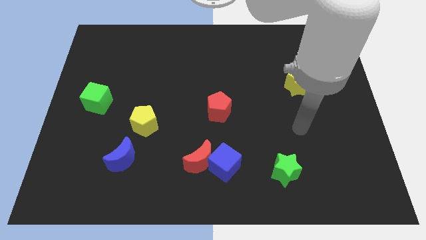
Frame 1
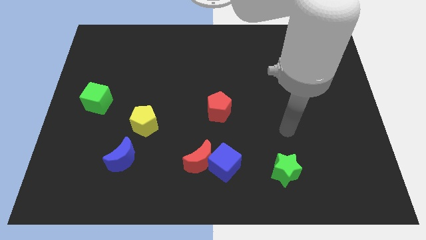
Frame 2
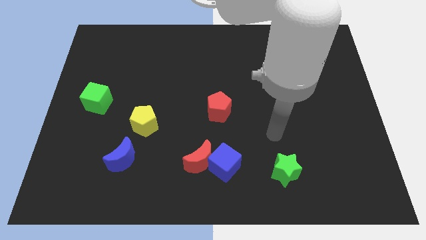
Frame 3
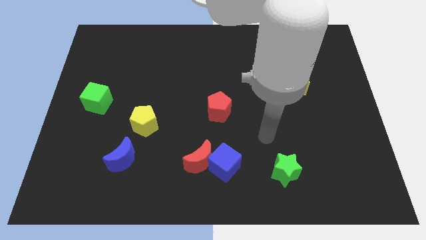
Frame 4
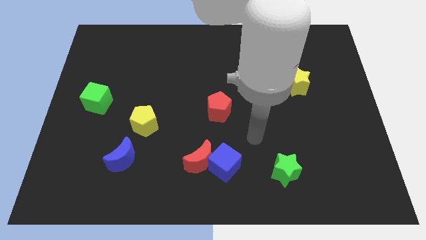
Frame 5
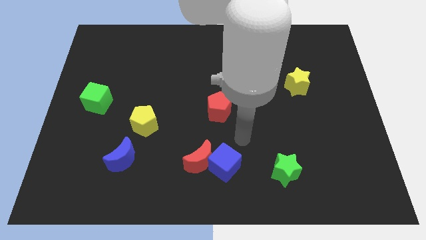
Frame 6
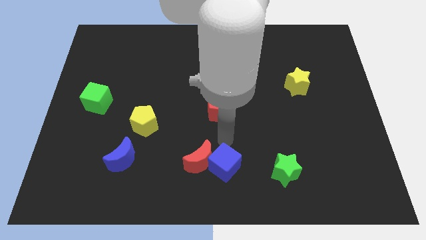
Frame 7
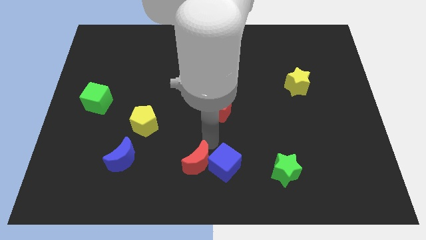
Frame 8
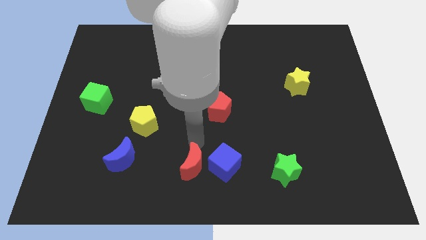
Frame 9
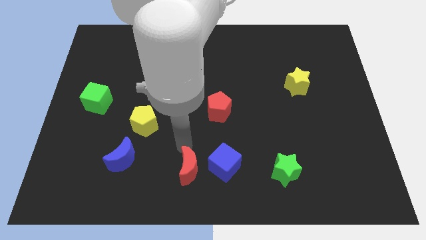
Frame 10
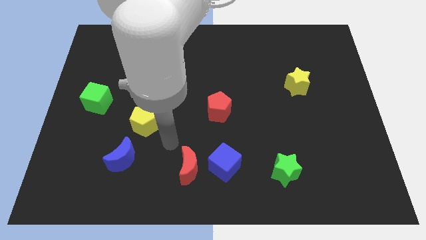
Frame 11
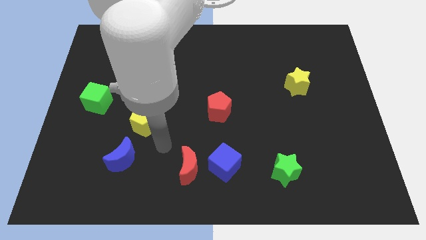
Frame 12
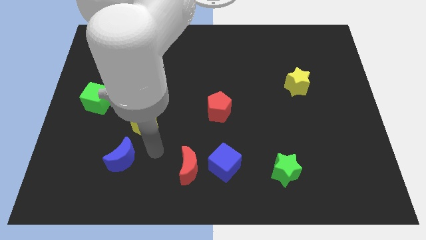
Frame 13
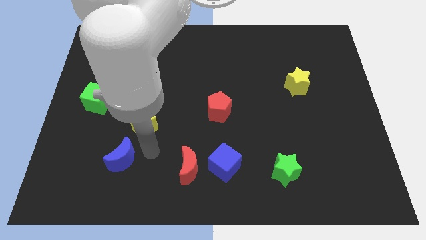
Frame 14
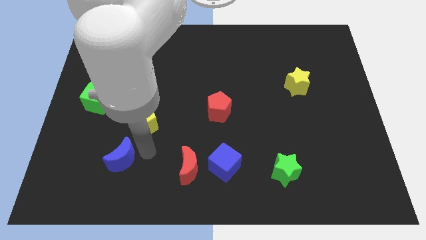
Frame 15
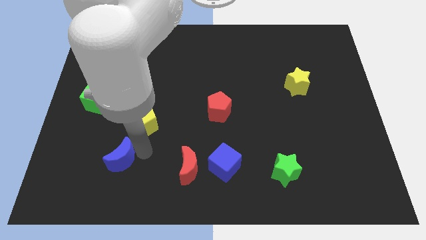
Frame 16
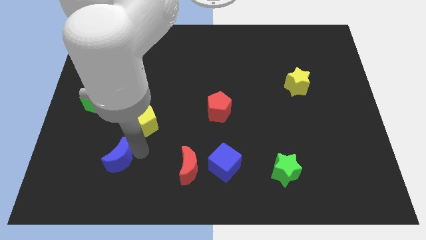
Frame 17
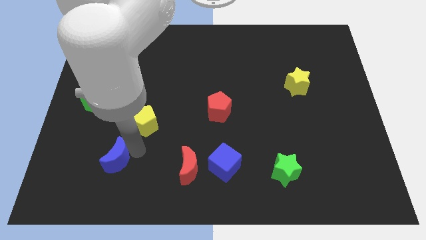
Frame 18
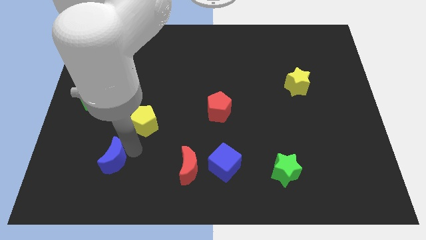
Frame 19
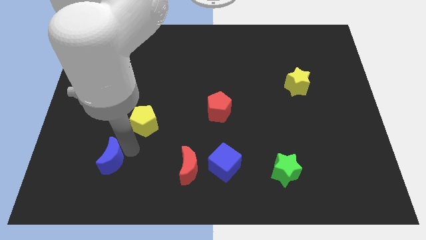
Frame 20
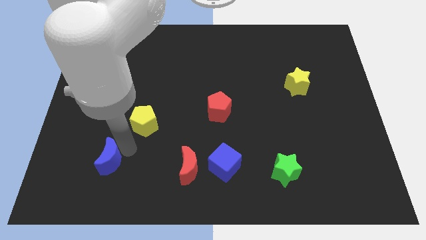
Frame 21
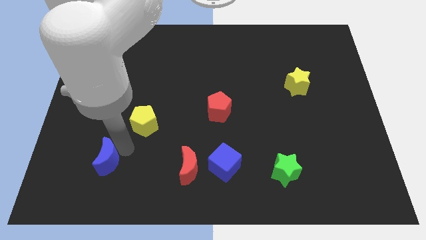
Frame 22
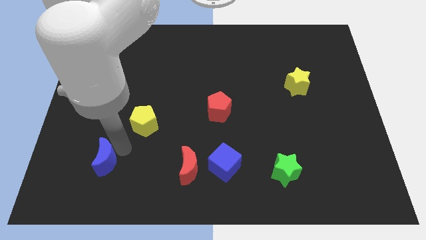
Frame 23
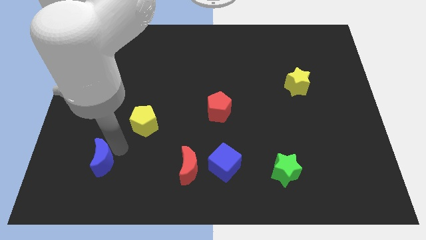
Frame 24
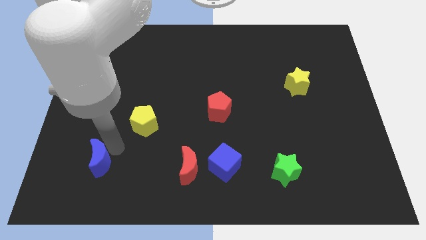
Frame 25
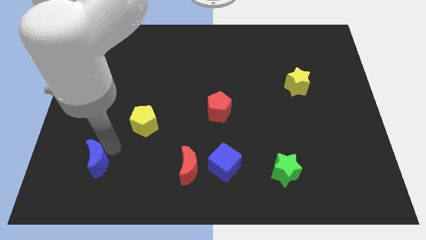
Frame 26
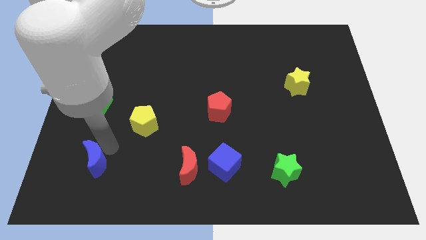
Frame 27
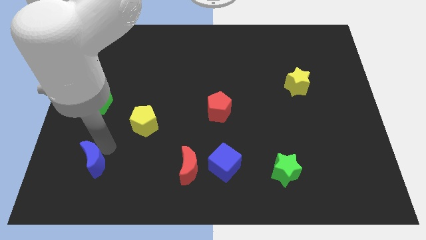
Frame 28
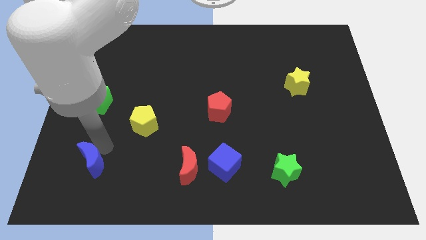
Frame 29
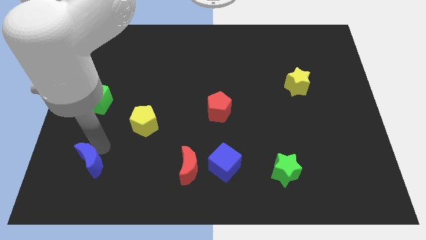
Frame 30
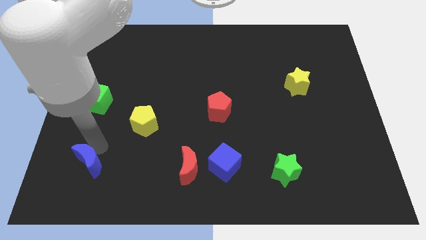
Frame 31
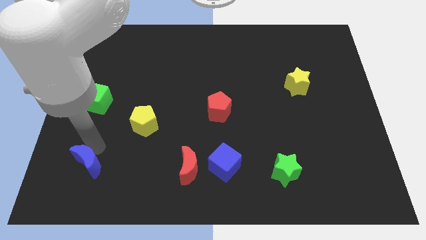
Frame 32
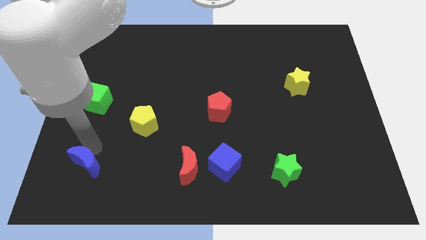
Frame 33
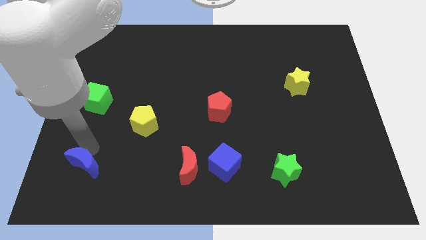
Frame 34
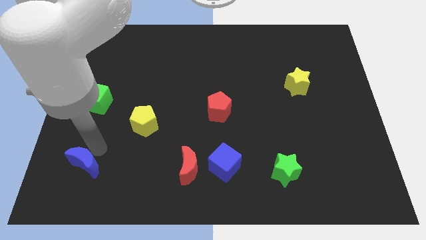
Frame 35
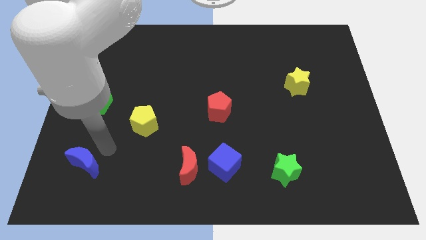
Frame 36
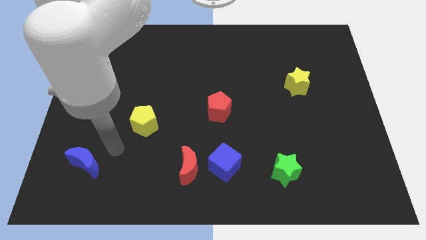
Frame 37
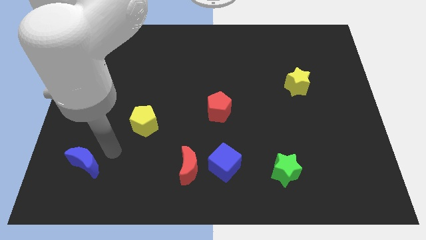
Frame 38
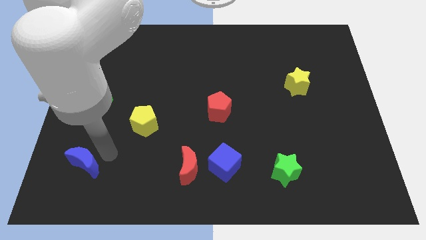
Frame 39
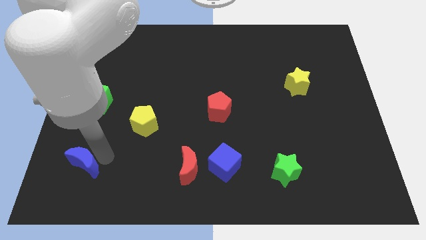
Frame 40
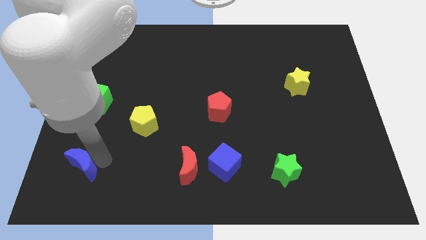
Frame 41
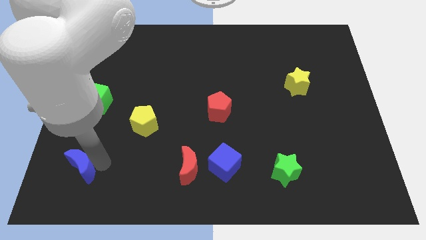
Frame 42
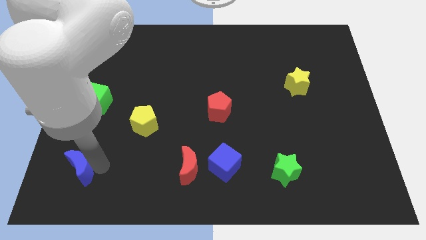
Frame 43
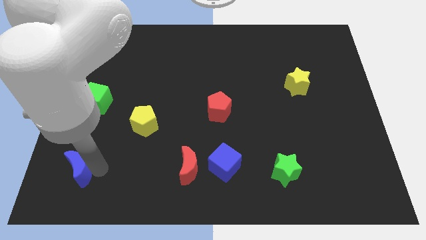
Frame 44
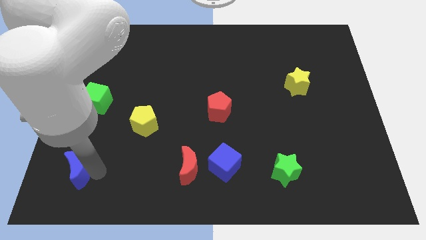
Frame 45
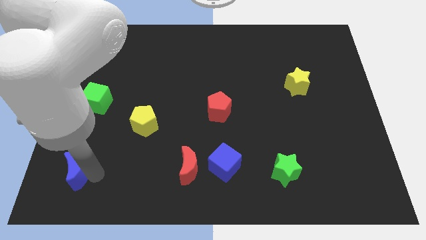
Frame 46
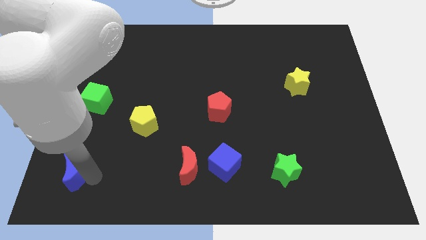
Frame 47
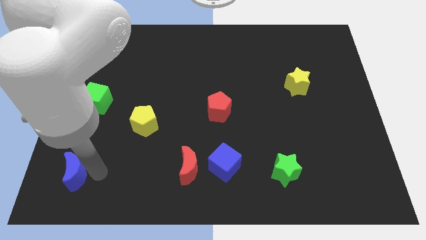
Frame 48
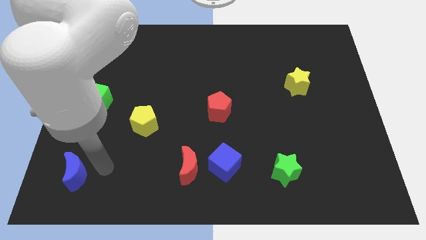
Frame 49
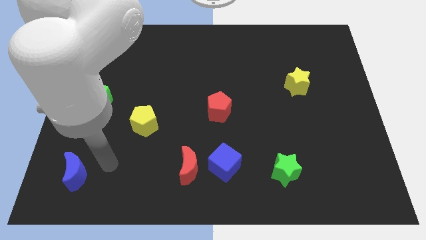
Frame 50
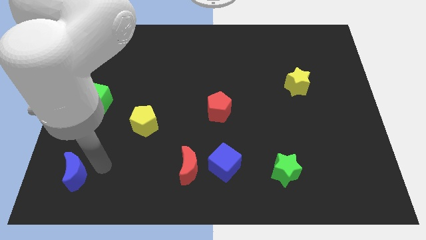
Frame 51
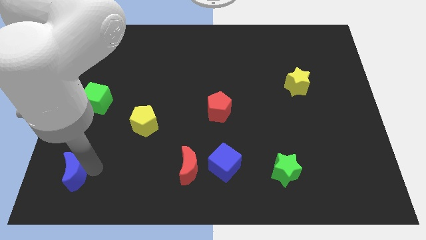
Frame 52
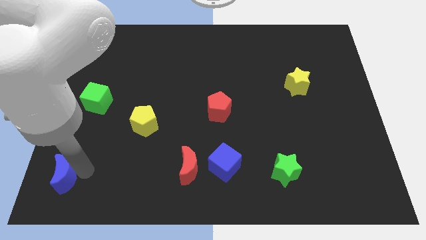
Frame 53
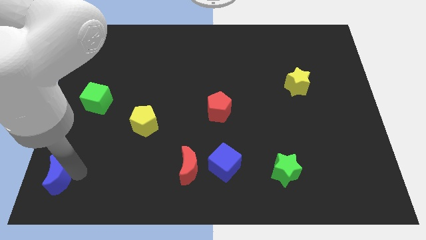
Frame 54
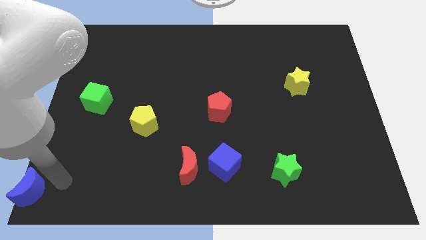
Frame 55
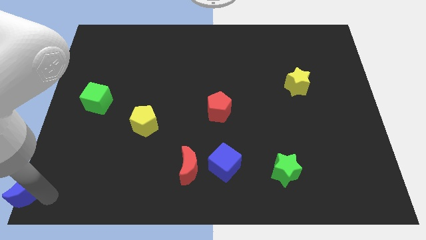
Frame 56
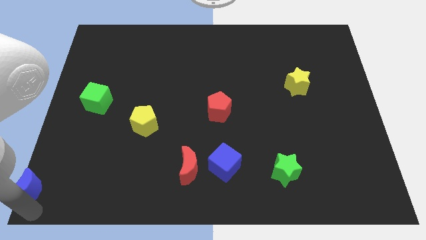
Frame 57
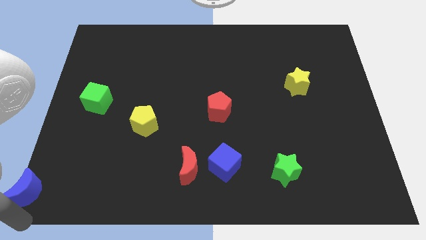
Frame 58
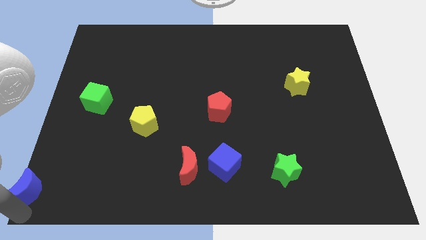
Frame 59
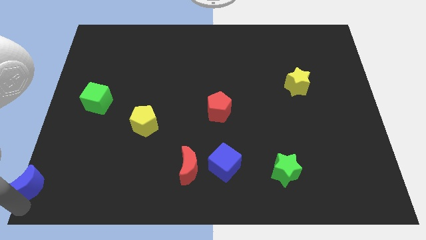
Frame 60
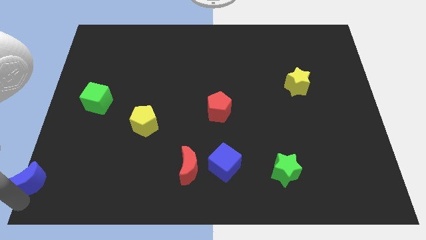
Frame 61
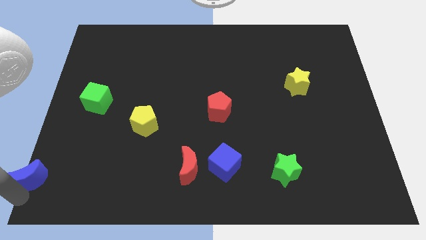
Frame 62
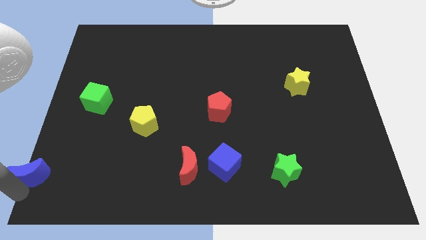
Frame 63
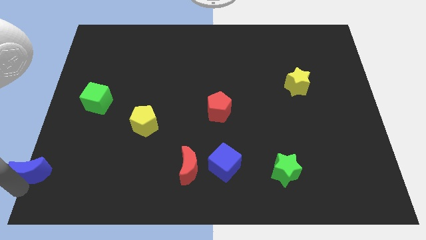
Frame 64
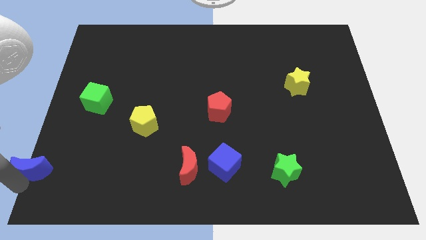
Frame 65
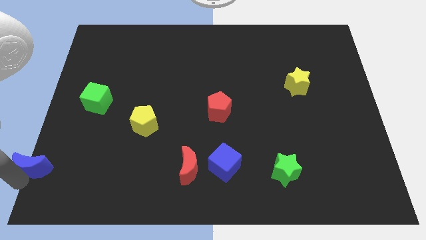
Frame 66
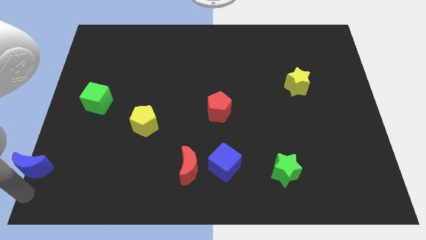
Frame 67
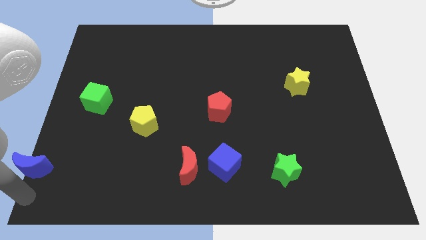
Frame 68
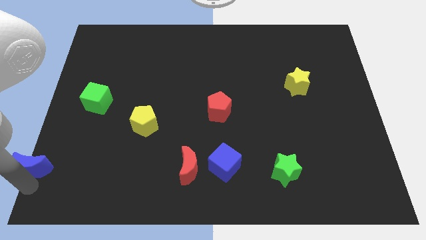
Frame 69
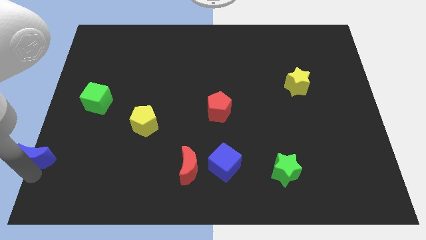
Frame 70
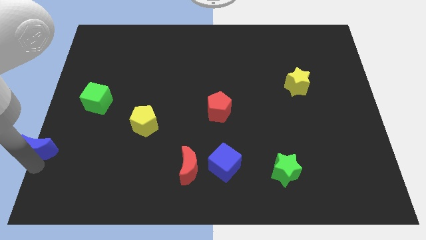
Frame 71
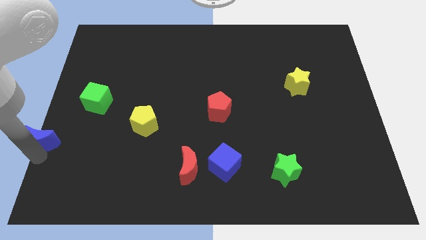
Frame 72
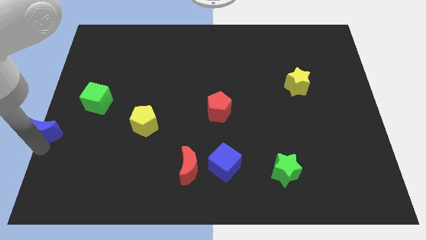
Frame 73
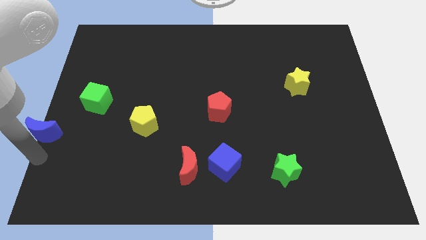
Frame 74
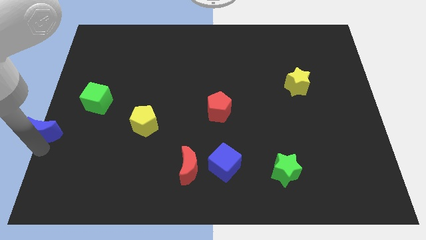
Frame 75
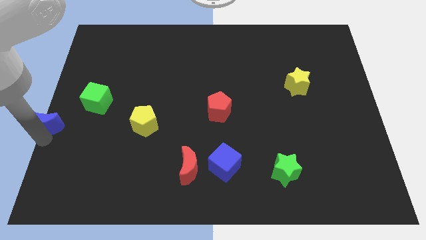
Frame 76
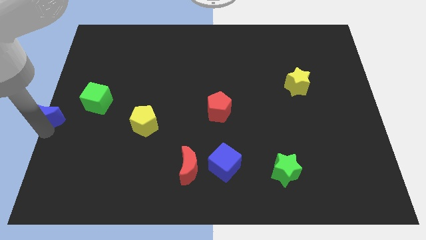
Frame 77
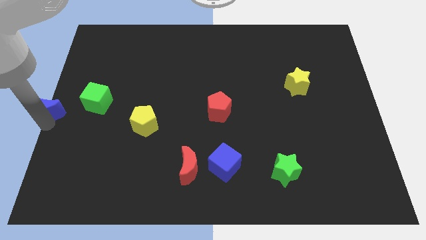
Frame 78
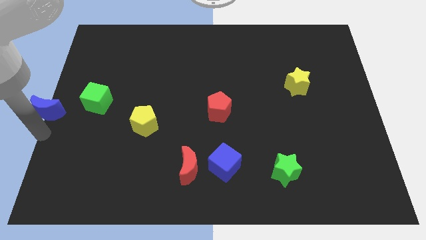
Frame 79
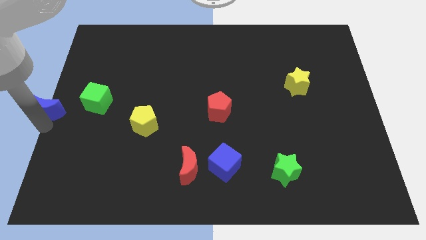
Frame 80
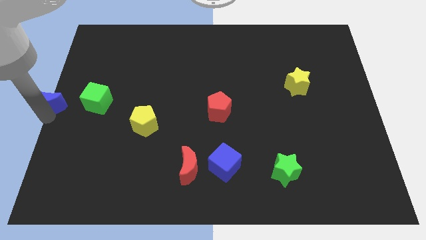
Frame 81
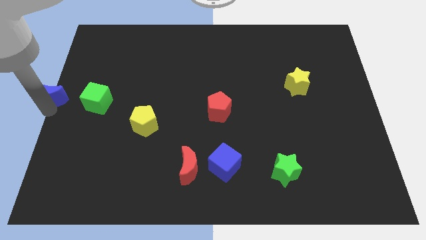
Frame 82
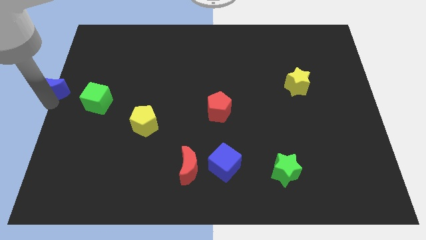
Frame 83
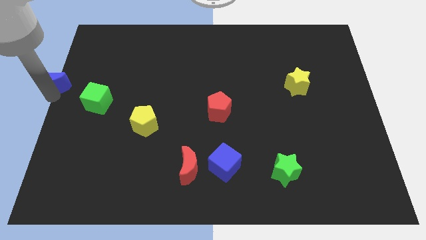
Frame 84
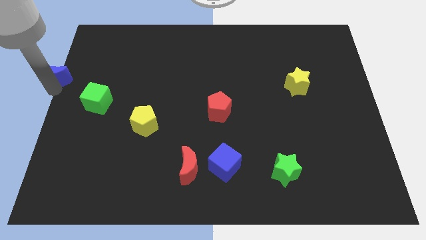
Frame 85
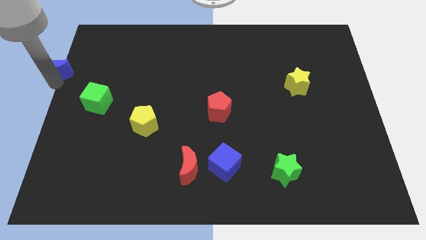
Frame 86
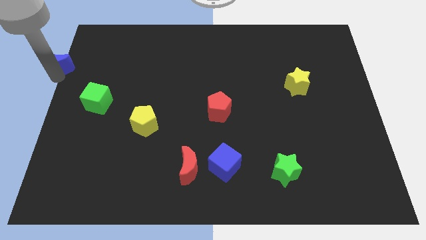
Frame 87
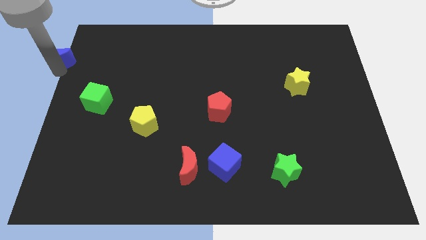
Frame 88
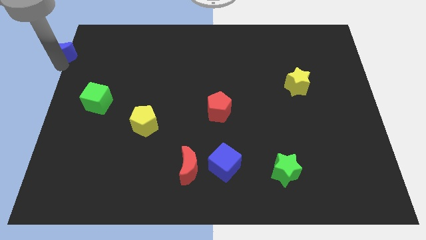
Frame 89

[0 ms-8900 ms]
push the blue moon to the top left corner
